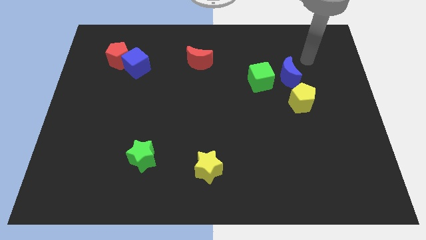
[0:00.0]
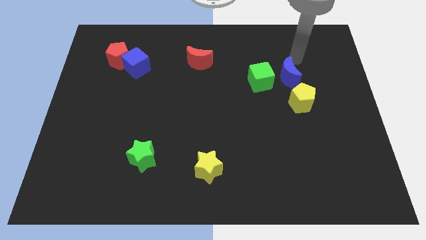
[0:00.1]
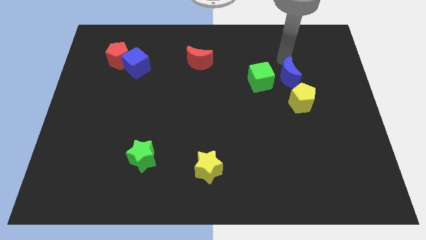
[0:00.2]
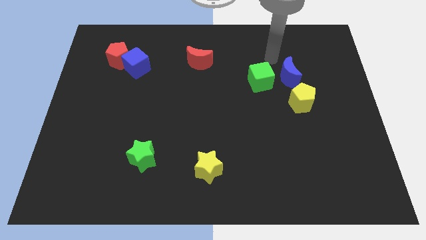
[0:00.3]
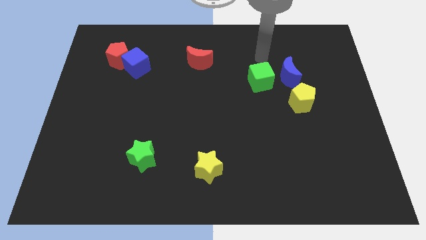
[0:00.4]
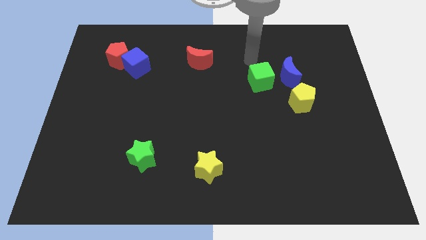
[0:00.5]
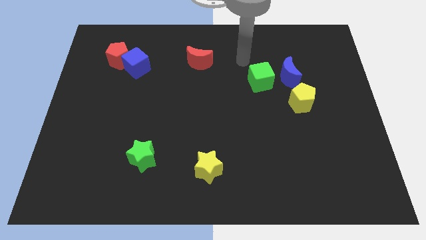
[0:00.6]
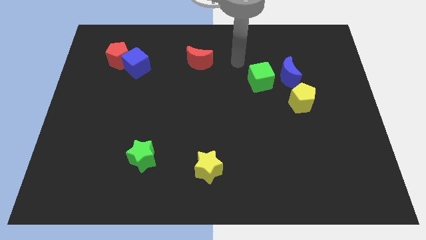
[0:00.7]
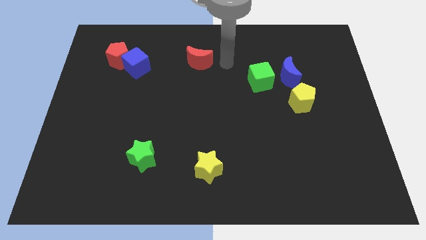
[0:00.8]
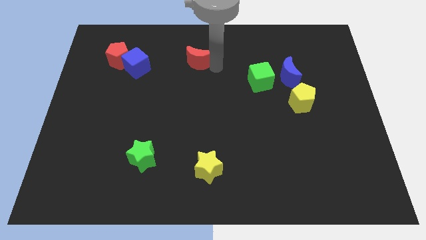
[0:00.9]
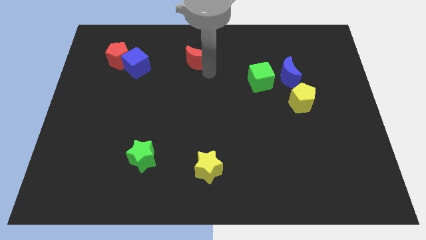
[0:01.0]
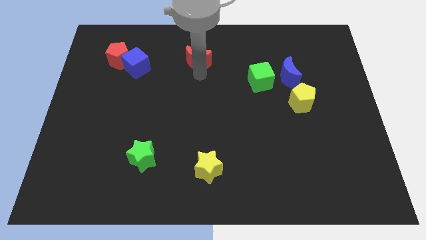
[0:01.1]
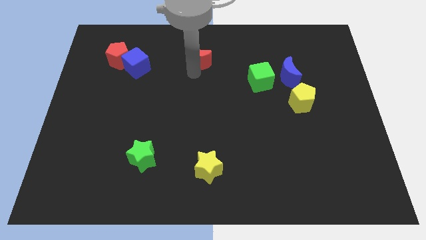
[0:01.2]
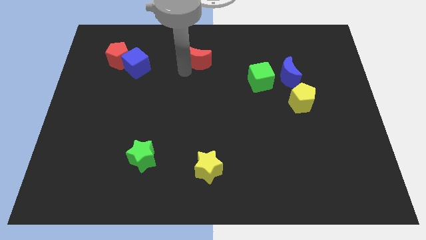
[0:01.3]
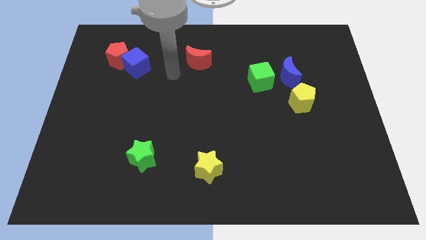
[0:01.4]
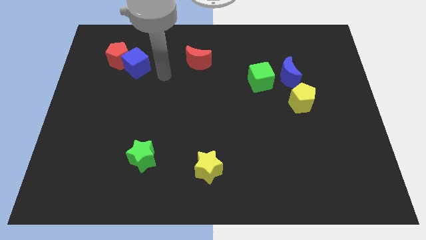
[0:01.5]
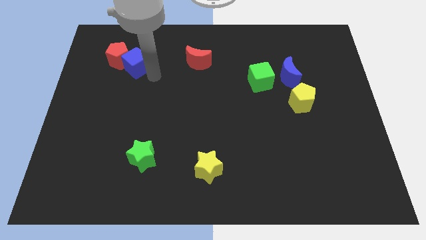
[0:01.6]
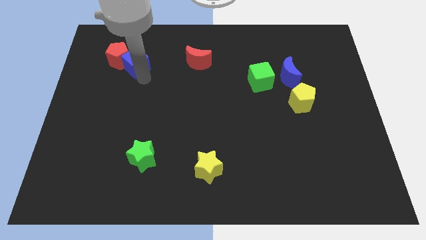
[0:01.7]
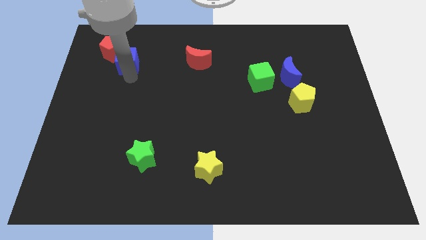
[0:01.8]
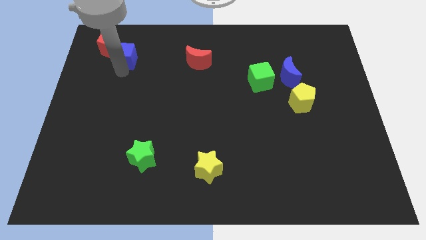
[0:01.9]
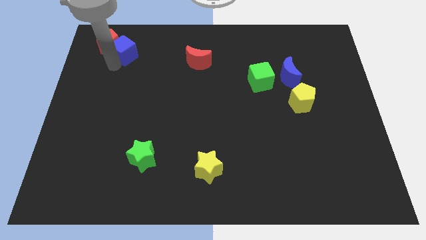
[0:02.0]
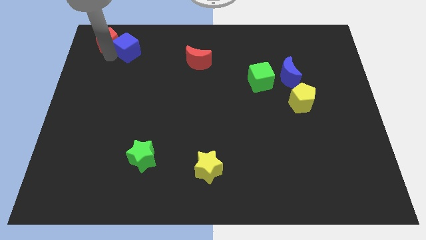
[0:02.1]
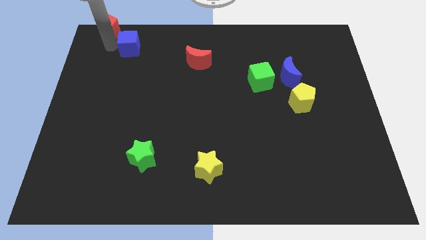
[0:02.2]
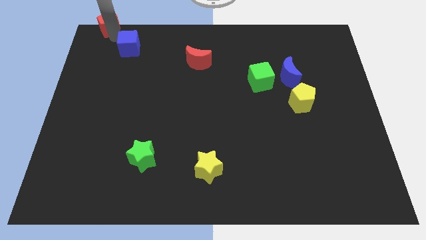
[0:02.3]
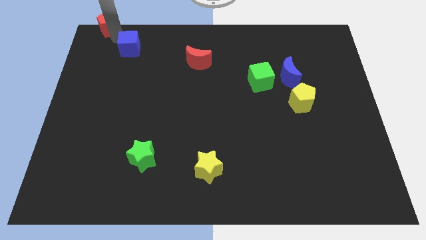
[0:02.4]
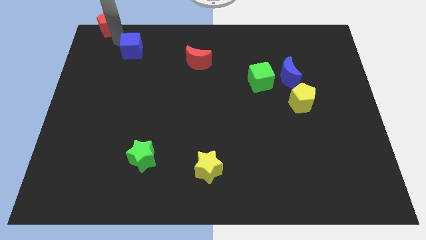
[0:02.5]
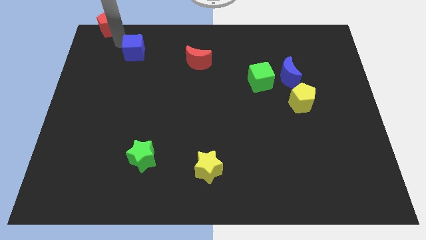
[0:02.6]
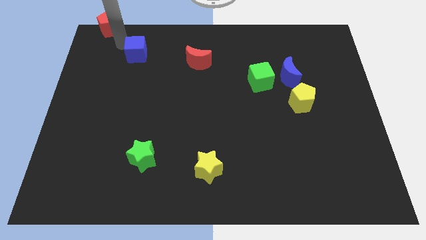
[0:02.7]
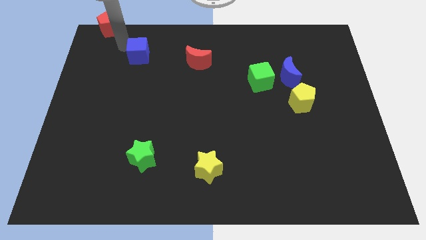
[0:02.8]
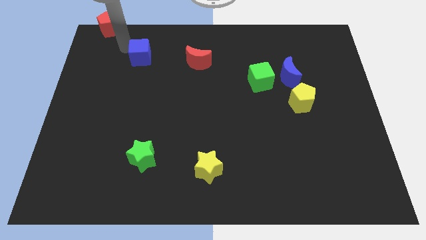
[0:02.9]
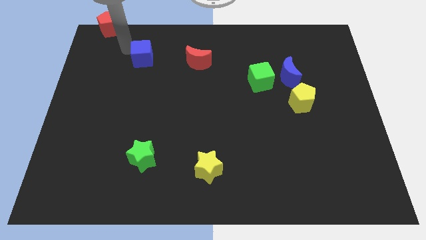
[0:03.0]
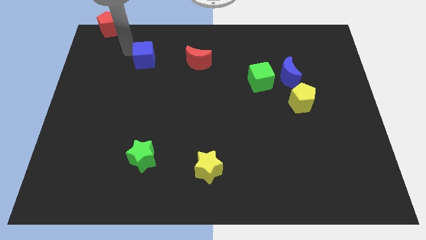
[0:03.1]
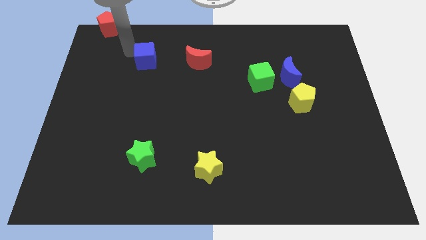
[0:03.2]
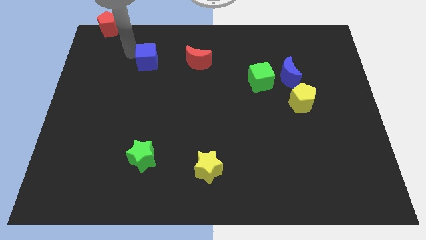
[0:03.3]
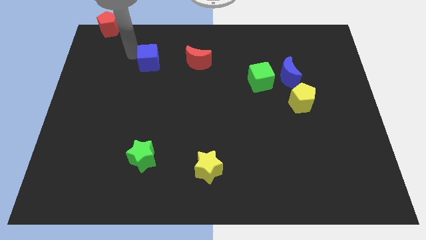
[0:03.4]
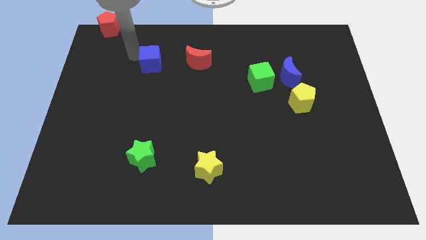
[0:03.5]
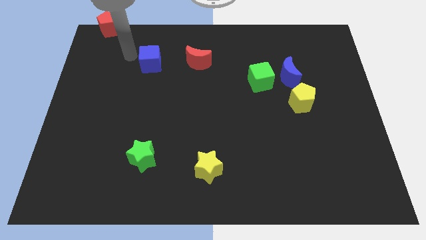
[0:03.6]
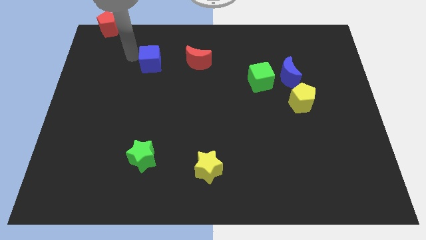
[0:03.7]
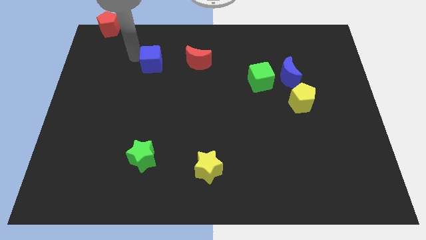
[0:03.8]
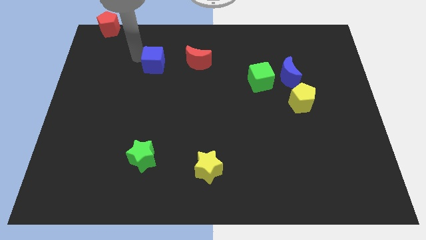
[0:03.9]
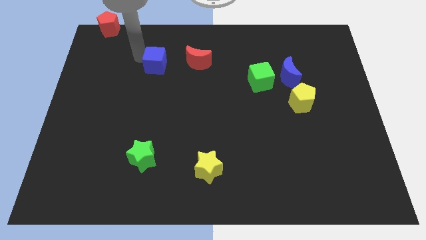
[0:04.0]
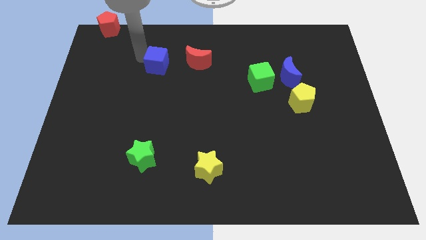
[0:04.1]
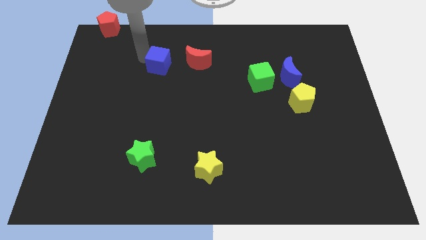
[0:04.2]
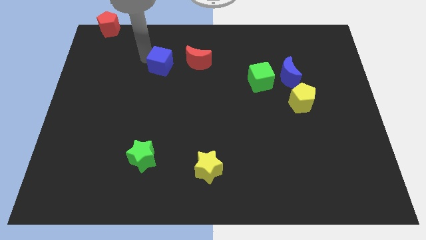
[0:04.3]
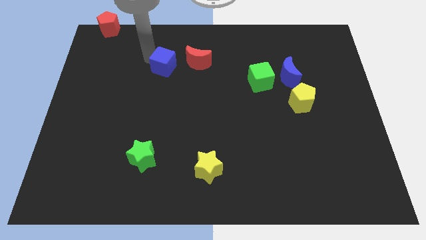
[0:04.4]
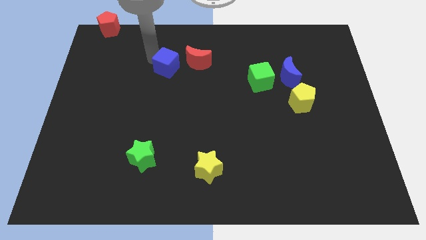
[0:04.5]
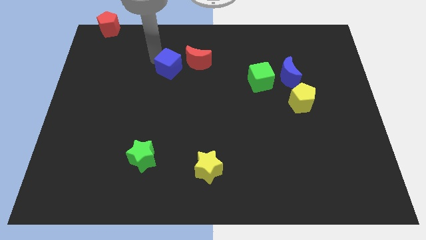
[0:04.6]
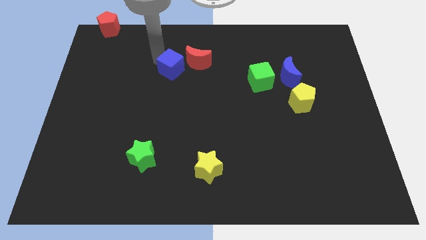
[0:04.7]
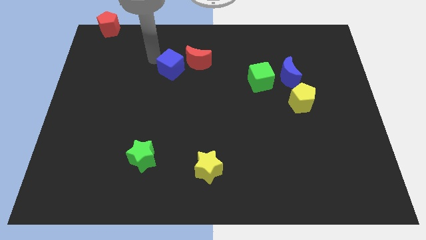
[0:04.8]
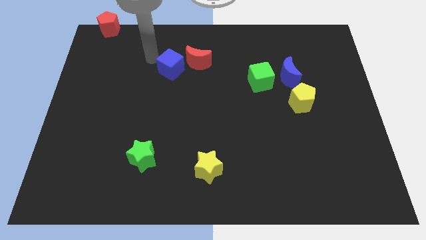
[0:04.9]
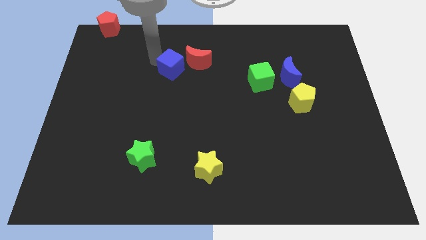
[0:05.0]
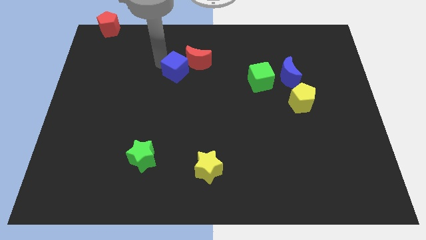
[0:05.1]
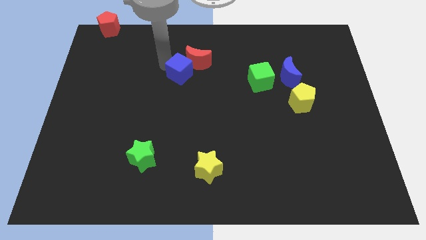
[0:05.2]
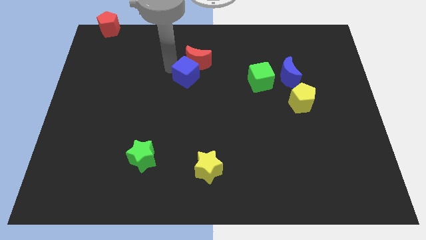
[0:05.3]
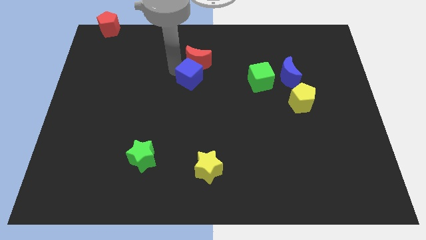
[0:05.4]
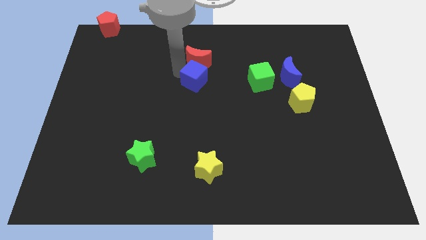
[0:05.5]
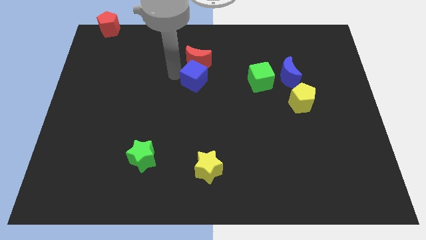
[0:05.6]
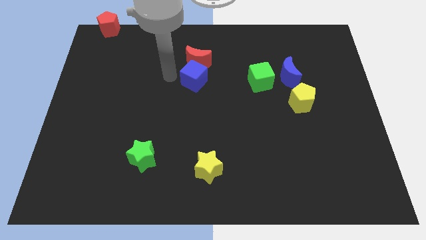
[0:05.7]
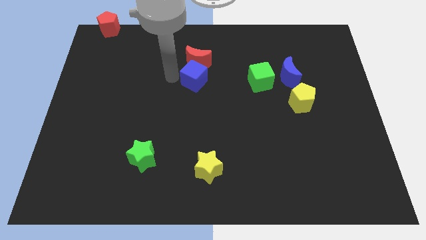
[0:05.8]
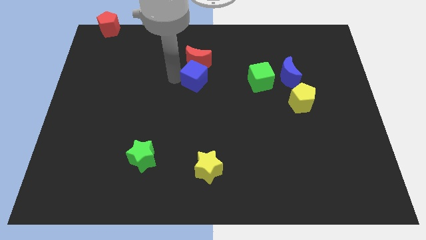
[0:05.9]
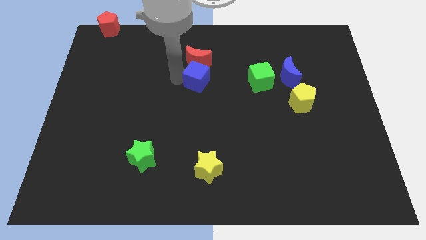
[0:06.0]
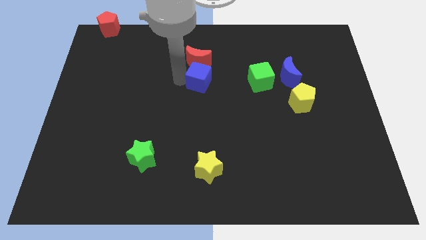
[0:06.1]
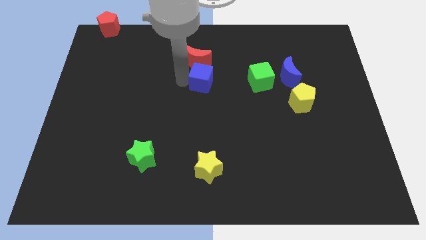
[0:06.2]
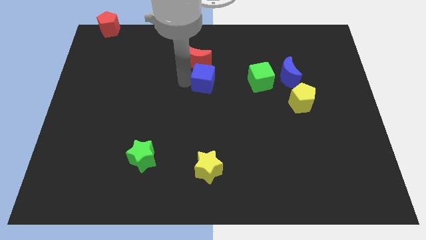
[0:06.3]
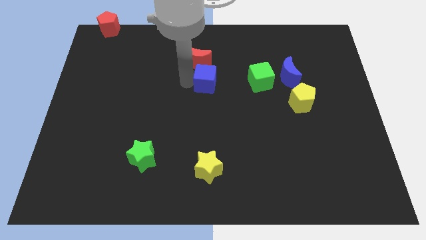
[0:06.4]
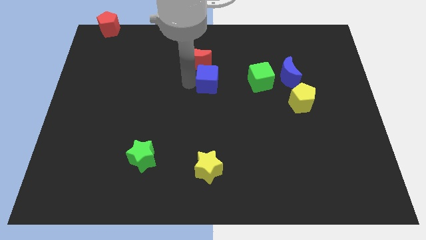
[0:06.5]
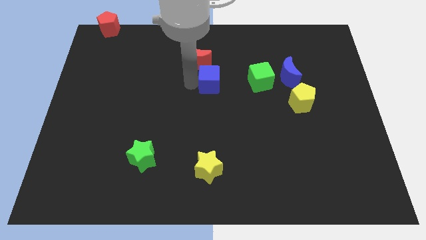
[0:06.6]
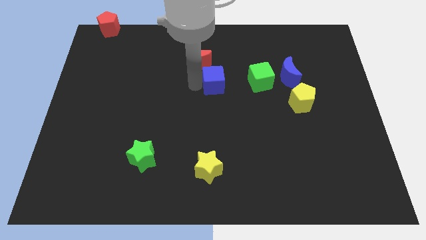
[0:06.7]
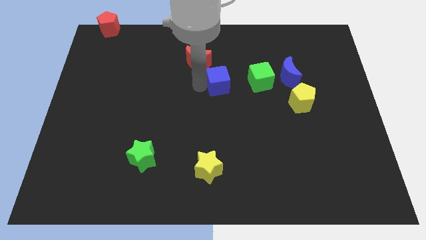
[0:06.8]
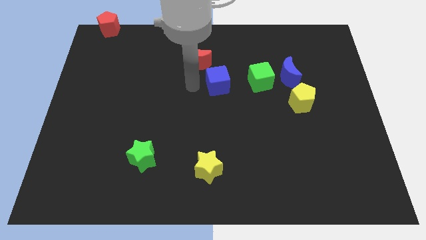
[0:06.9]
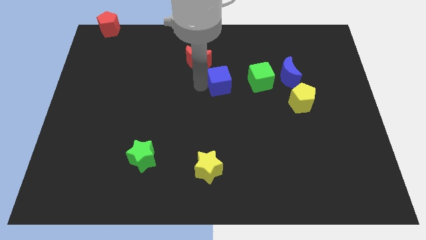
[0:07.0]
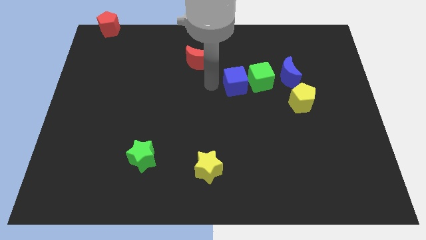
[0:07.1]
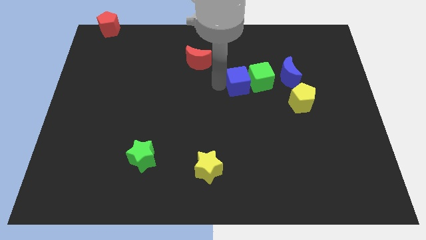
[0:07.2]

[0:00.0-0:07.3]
slide the blue cube towards the green cube
